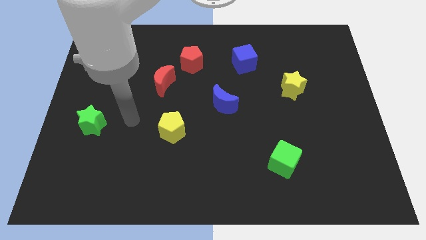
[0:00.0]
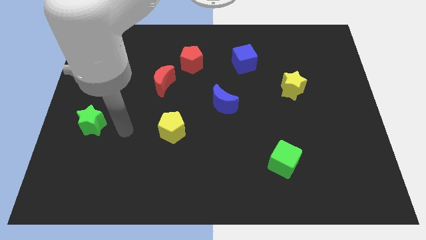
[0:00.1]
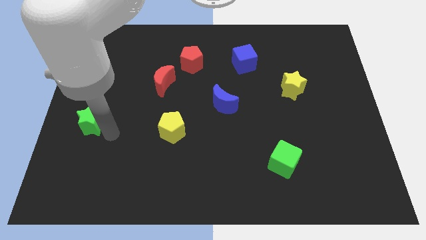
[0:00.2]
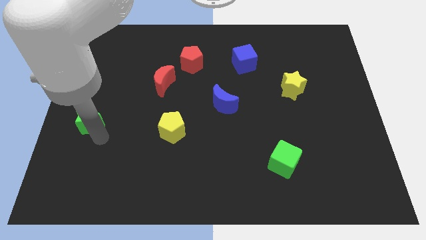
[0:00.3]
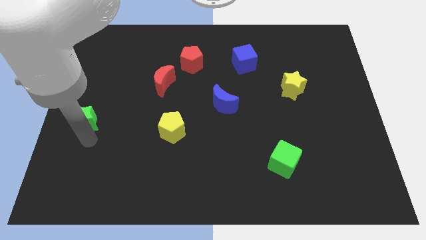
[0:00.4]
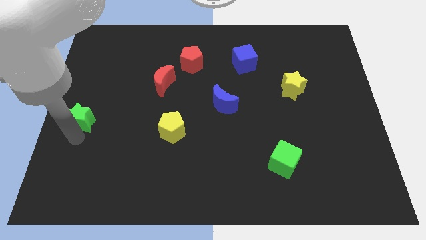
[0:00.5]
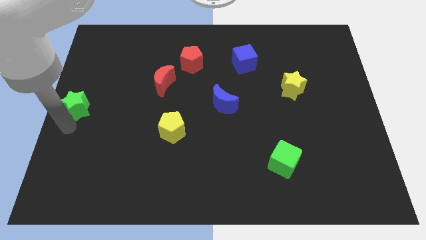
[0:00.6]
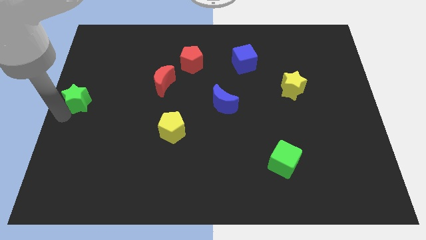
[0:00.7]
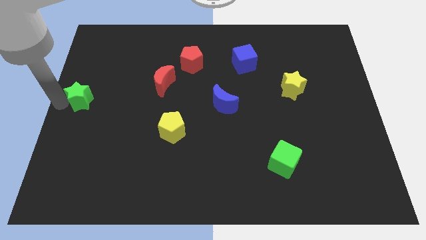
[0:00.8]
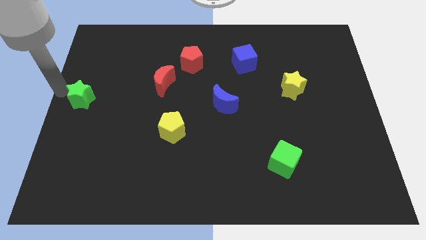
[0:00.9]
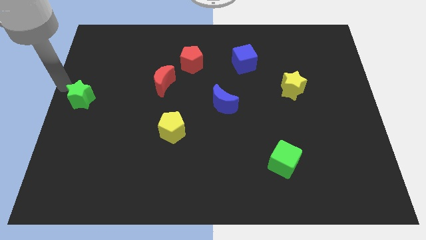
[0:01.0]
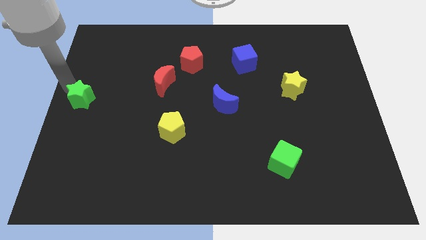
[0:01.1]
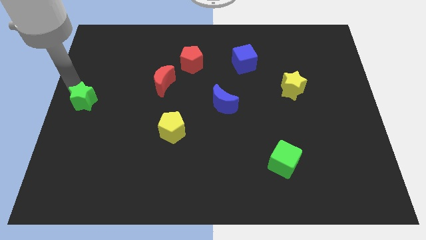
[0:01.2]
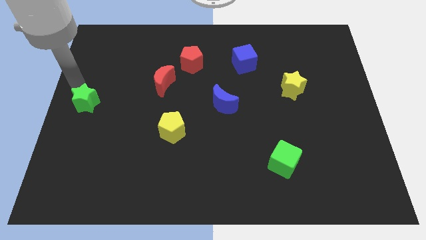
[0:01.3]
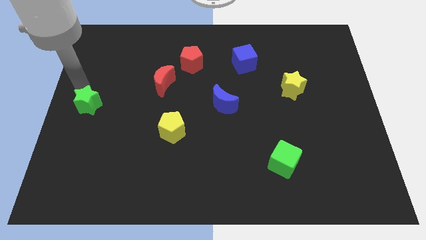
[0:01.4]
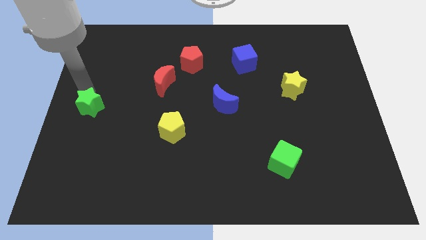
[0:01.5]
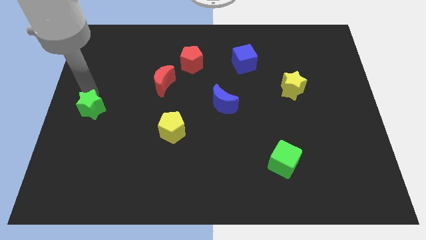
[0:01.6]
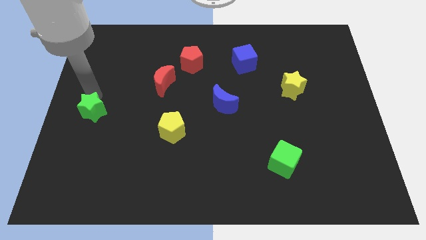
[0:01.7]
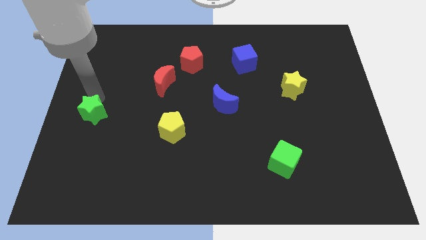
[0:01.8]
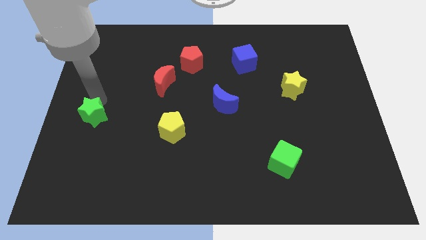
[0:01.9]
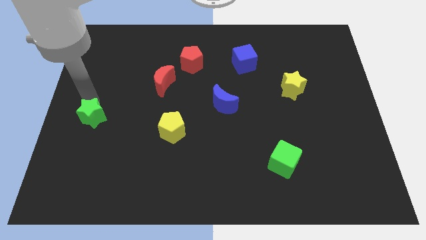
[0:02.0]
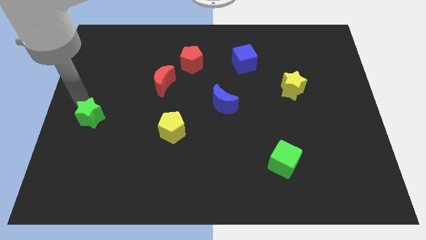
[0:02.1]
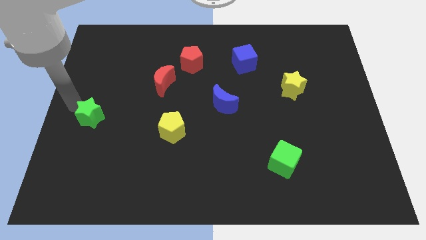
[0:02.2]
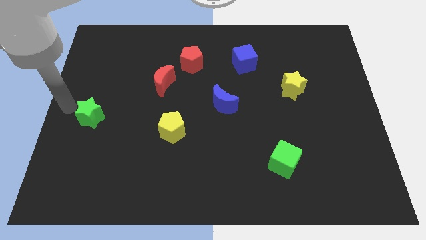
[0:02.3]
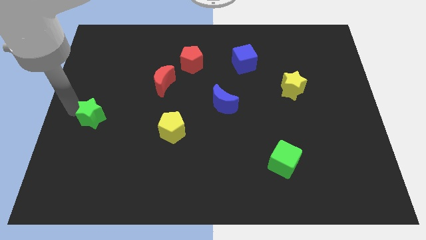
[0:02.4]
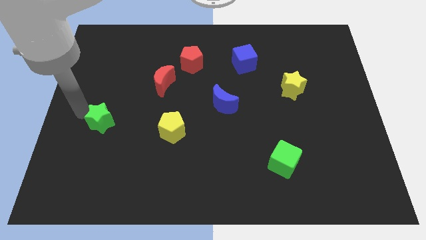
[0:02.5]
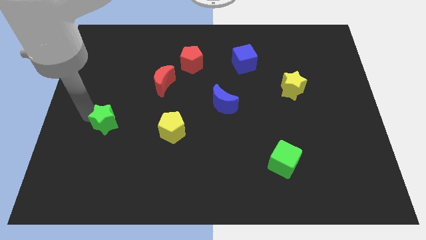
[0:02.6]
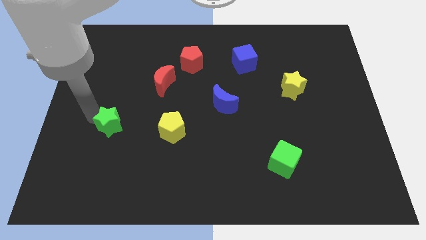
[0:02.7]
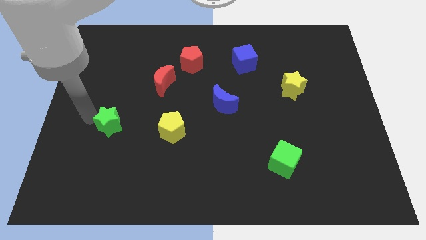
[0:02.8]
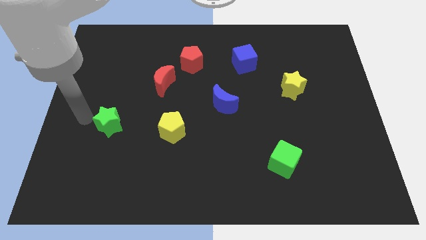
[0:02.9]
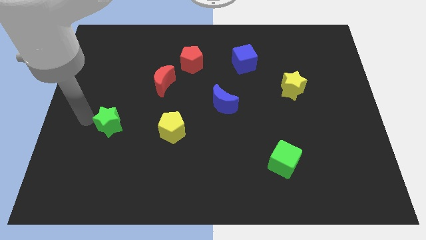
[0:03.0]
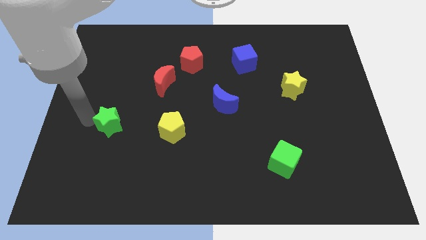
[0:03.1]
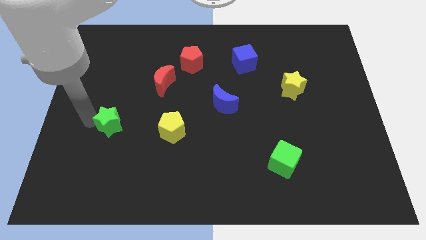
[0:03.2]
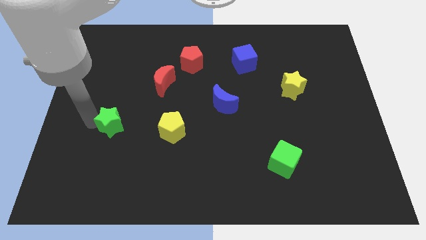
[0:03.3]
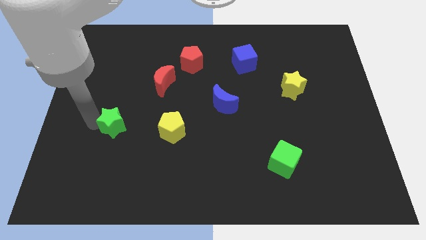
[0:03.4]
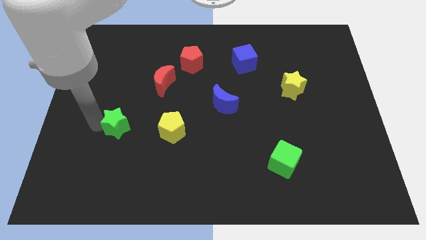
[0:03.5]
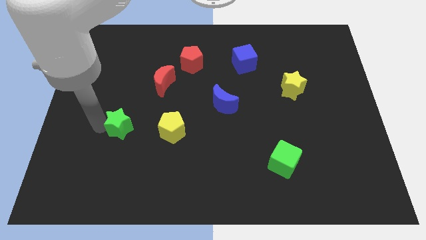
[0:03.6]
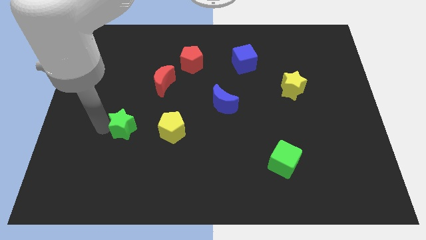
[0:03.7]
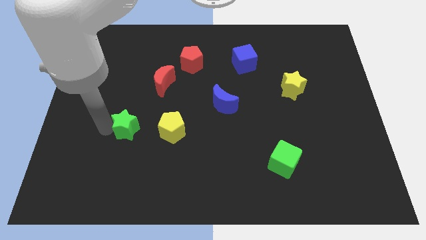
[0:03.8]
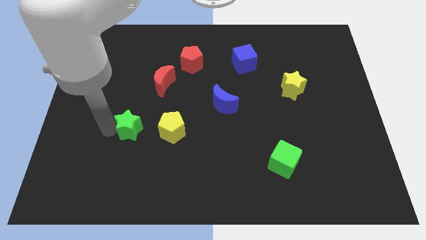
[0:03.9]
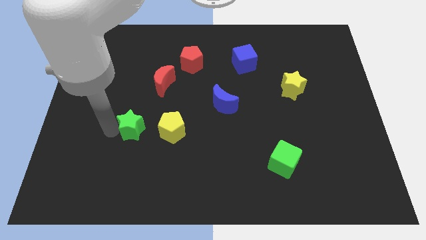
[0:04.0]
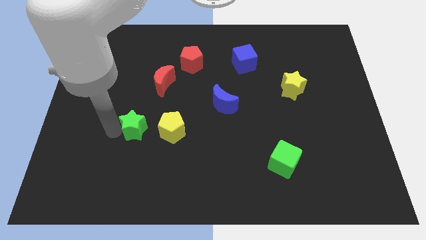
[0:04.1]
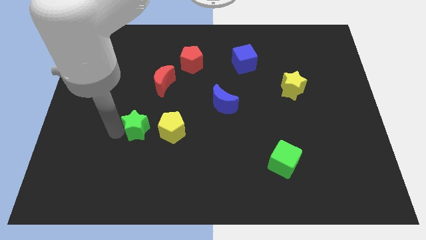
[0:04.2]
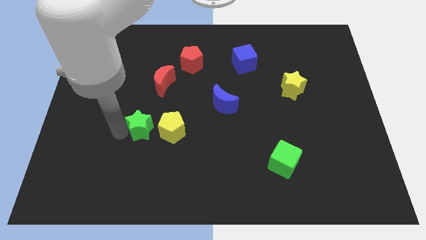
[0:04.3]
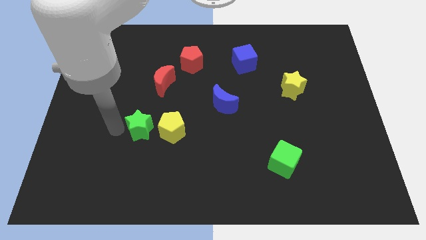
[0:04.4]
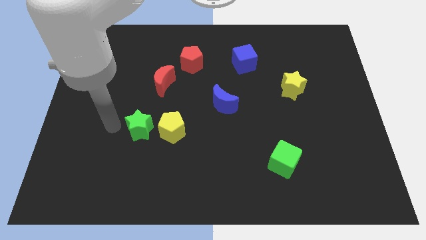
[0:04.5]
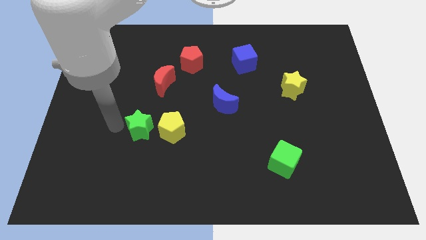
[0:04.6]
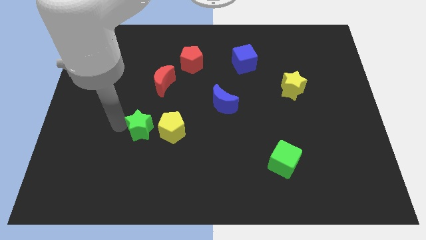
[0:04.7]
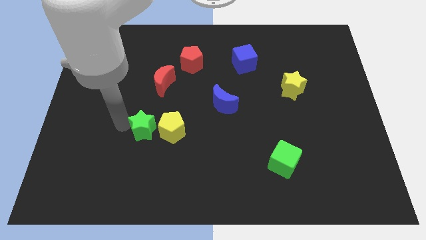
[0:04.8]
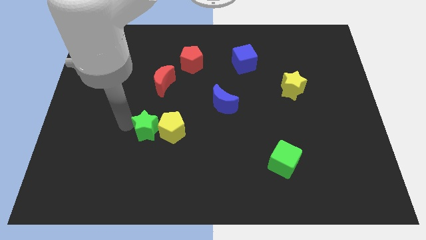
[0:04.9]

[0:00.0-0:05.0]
put the green star next to the yellow pentagon

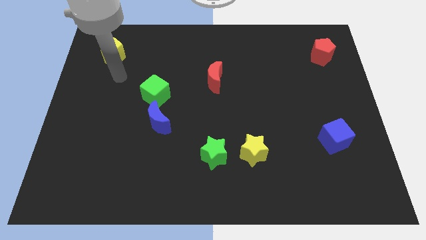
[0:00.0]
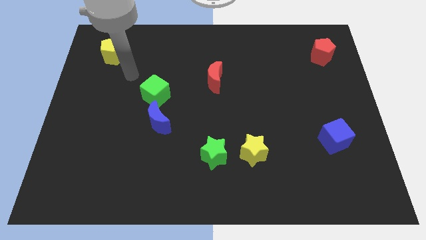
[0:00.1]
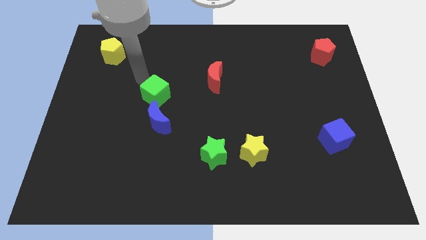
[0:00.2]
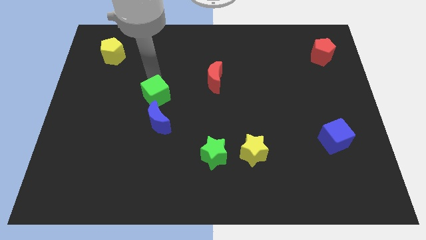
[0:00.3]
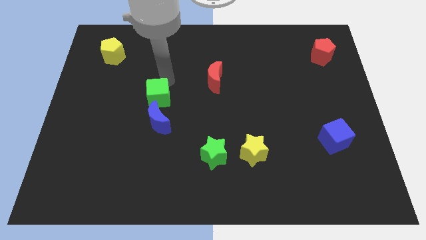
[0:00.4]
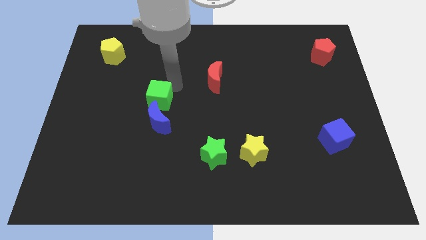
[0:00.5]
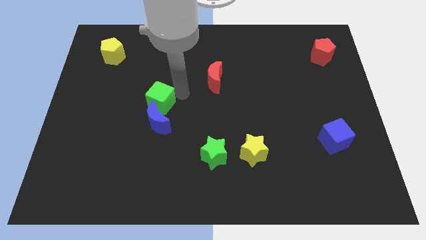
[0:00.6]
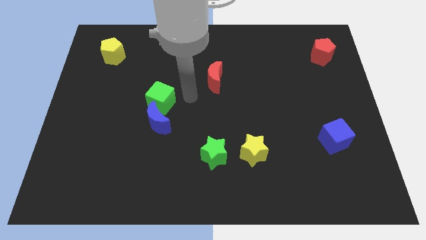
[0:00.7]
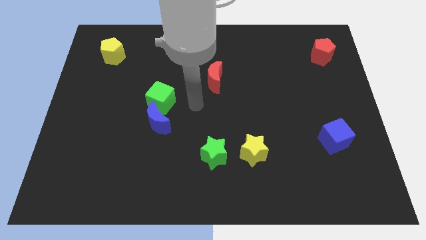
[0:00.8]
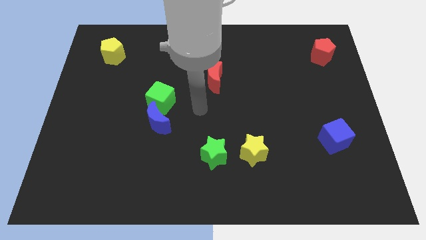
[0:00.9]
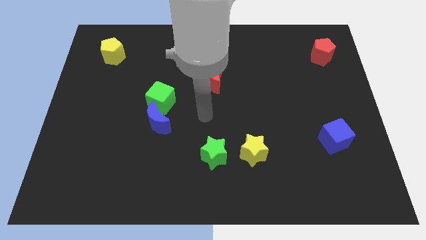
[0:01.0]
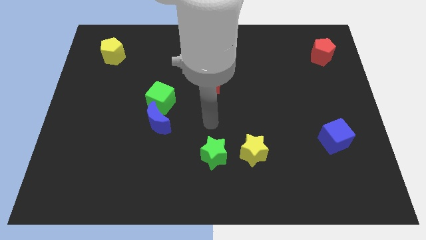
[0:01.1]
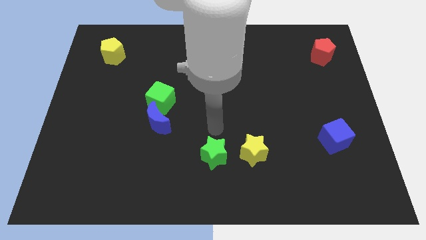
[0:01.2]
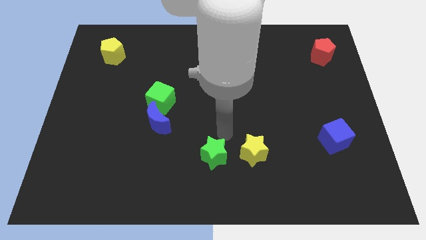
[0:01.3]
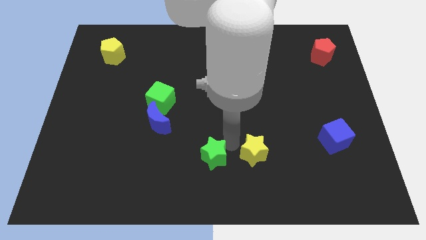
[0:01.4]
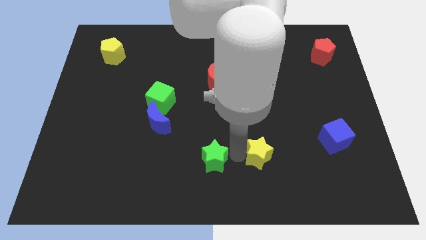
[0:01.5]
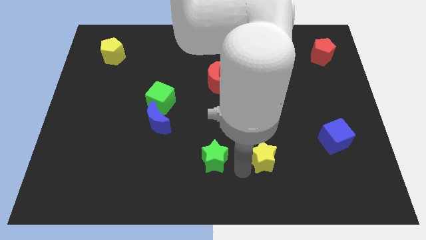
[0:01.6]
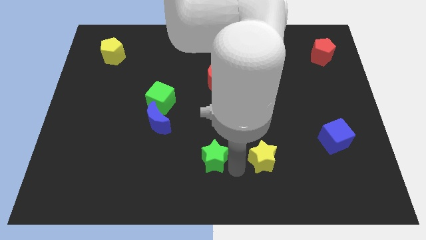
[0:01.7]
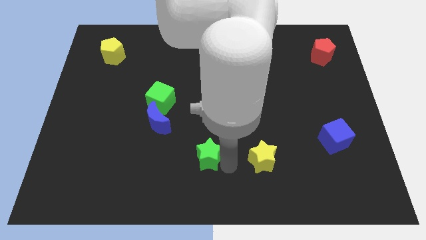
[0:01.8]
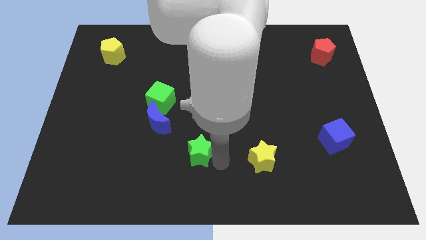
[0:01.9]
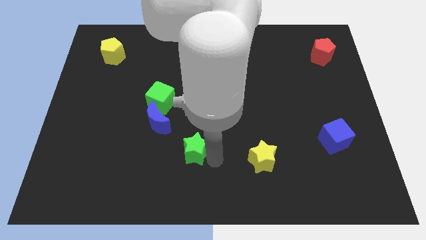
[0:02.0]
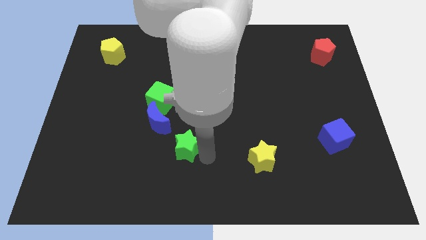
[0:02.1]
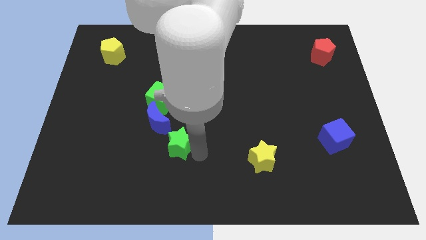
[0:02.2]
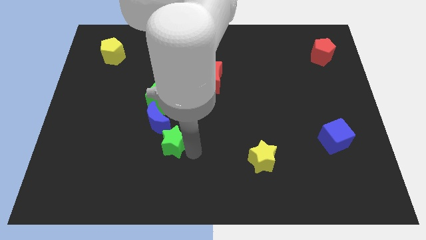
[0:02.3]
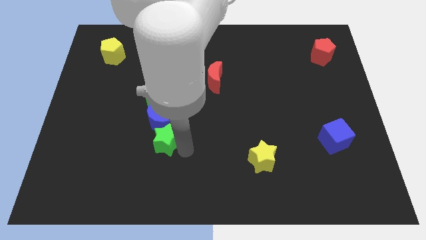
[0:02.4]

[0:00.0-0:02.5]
push the green star close to the blue moon
